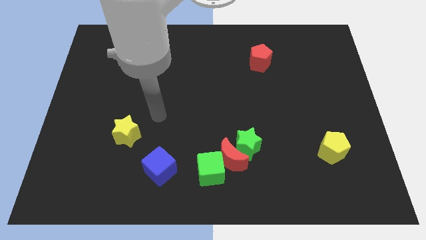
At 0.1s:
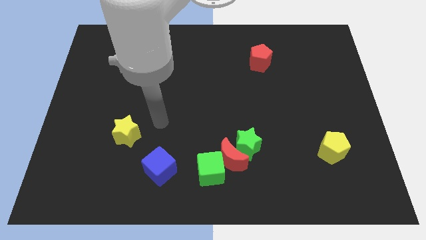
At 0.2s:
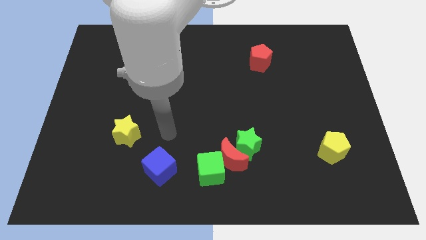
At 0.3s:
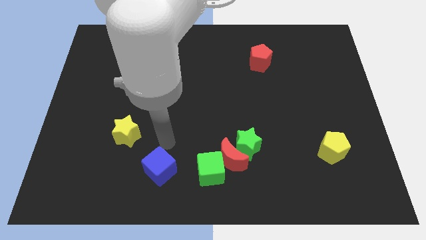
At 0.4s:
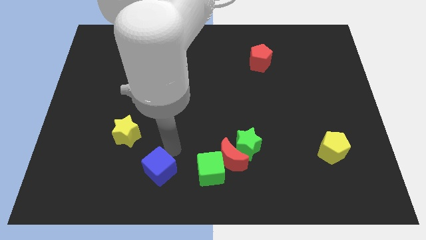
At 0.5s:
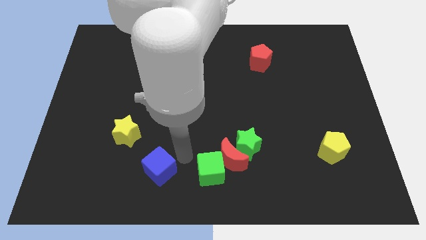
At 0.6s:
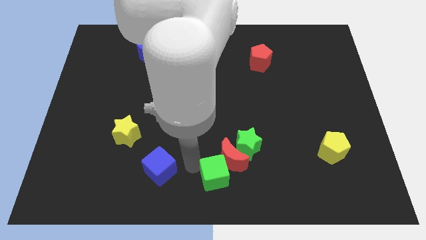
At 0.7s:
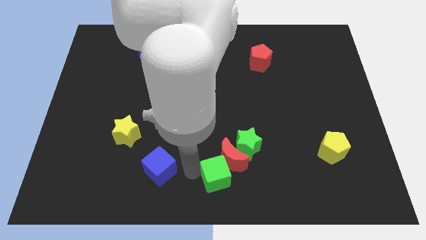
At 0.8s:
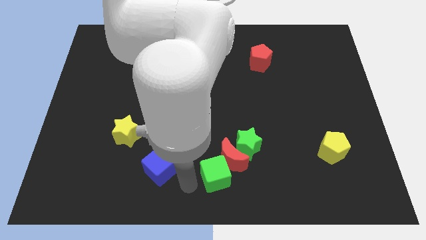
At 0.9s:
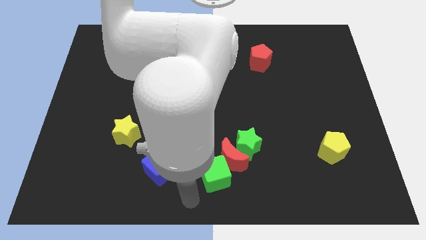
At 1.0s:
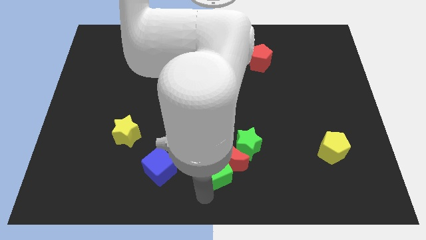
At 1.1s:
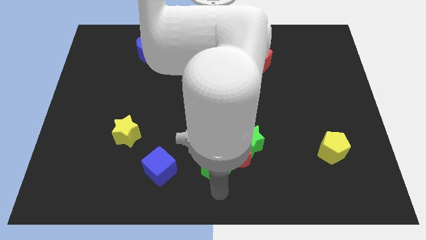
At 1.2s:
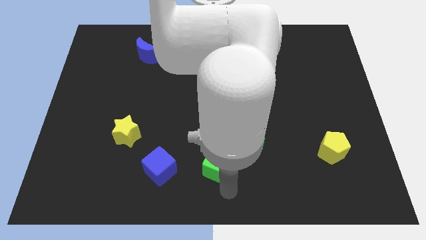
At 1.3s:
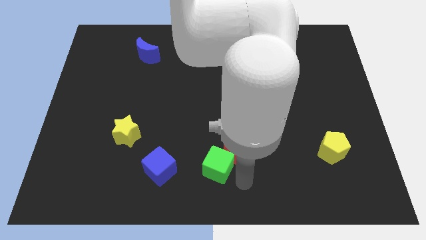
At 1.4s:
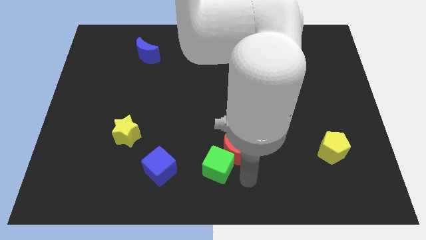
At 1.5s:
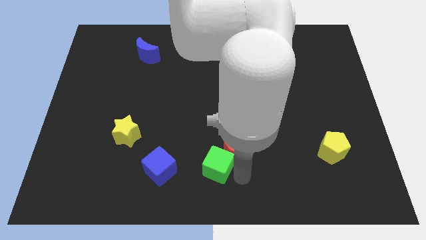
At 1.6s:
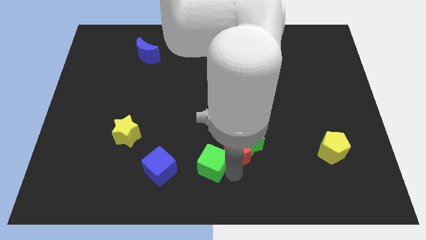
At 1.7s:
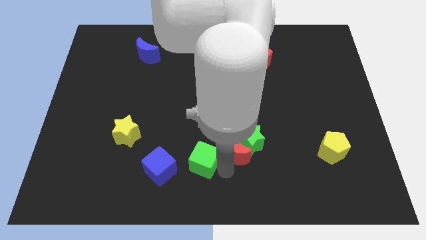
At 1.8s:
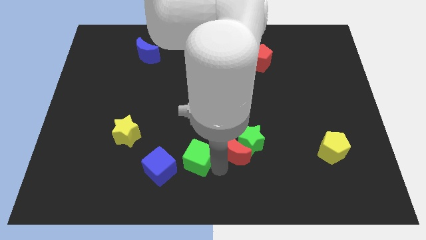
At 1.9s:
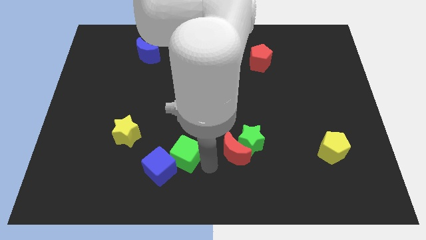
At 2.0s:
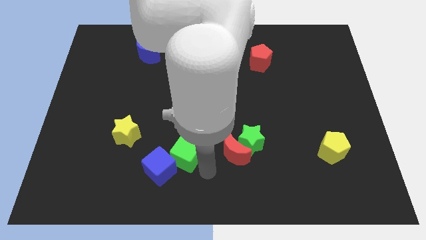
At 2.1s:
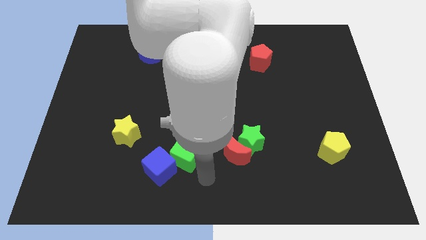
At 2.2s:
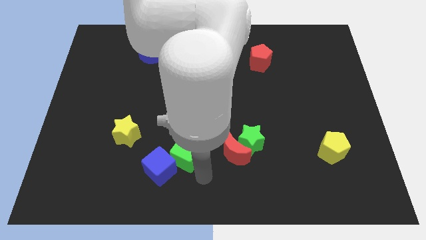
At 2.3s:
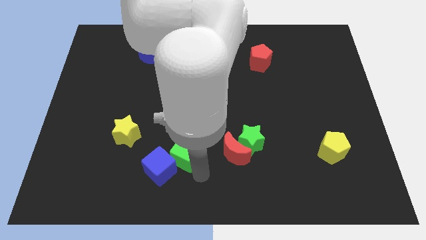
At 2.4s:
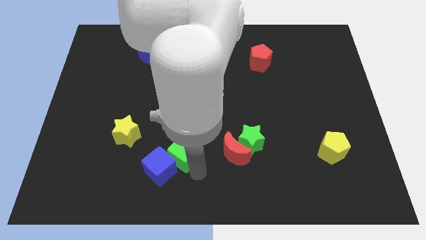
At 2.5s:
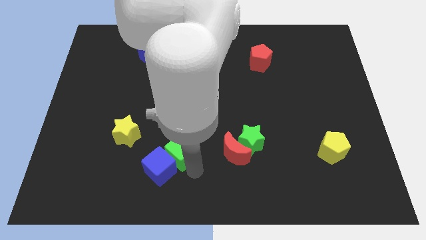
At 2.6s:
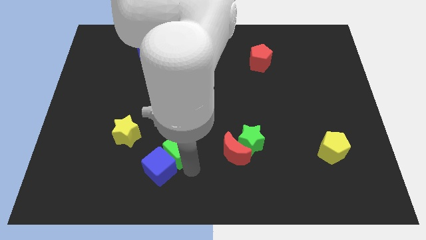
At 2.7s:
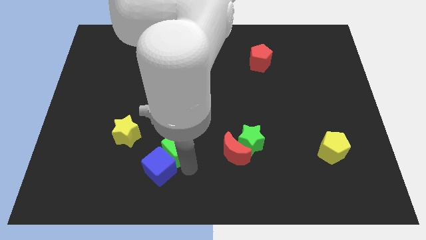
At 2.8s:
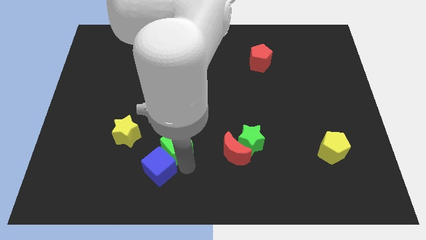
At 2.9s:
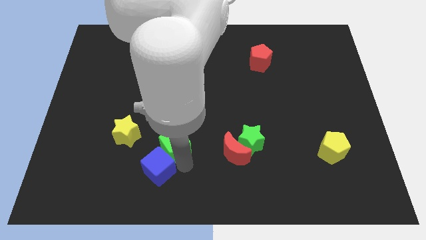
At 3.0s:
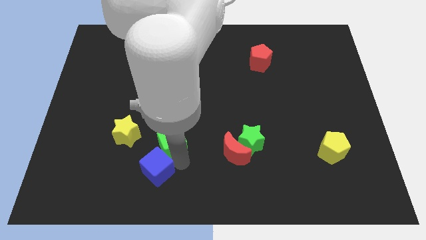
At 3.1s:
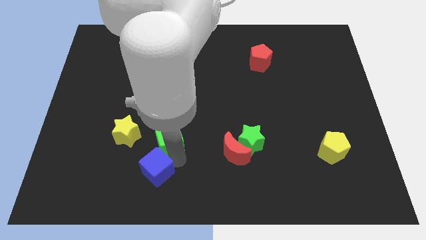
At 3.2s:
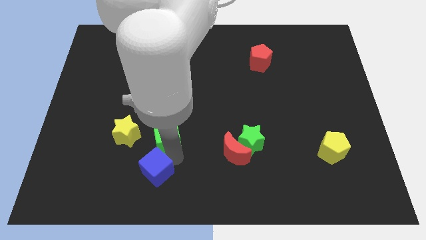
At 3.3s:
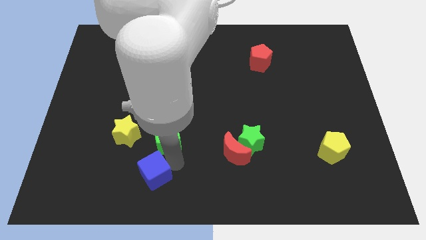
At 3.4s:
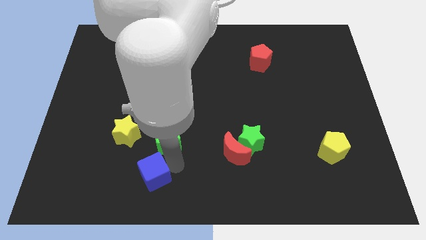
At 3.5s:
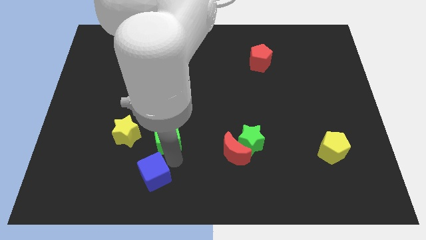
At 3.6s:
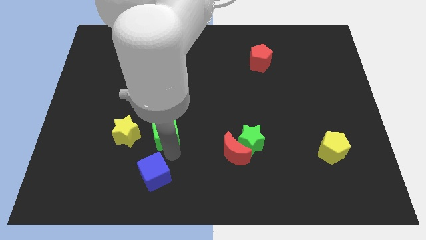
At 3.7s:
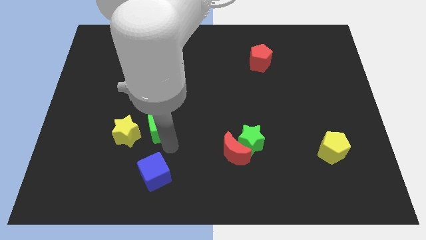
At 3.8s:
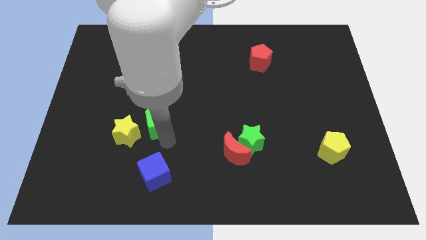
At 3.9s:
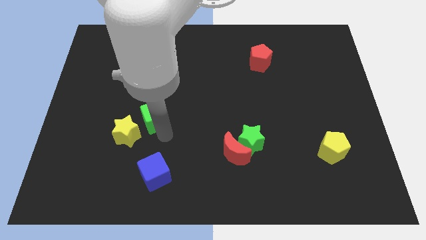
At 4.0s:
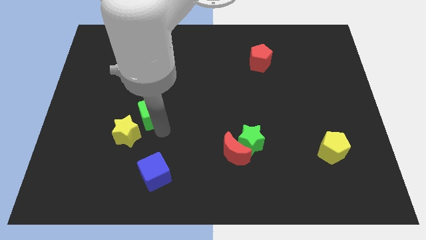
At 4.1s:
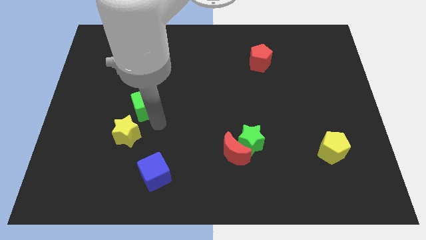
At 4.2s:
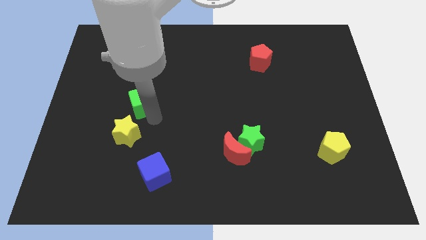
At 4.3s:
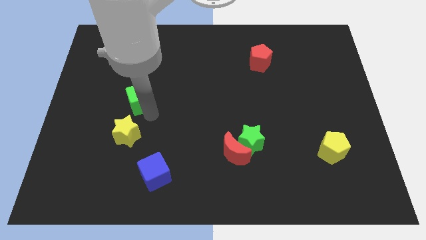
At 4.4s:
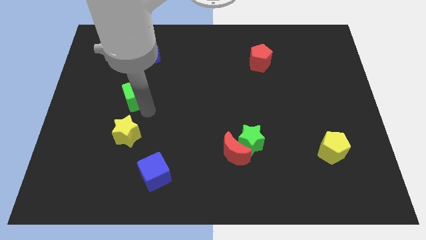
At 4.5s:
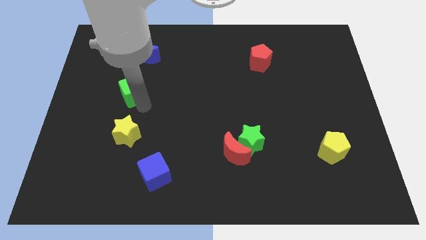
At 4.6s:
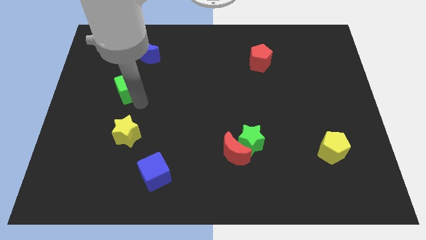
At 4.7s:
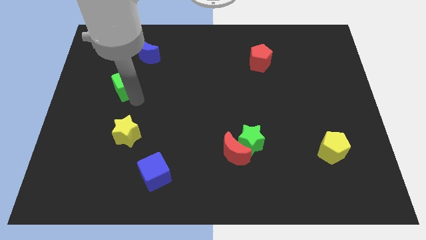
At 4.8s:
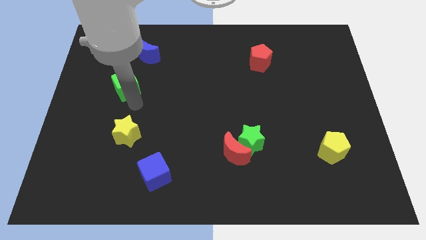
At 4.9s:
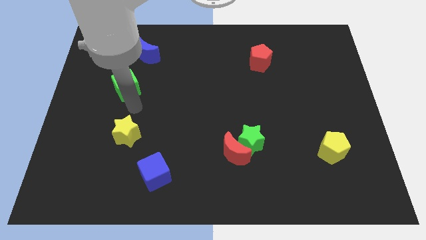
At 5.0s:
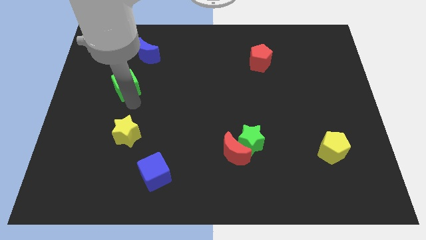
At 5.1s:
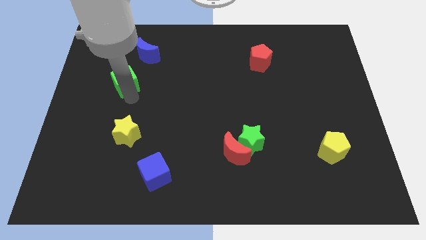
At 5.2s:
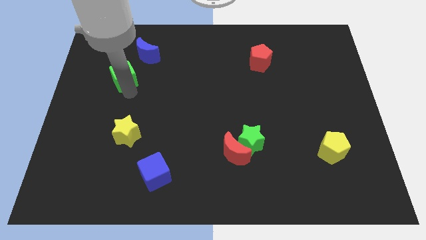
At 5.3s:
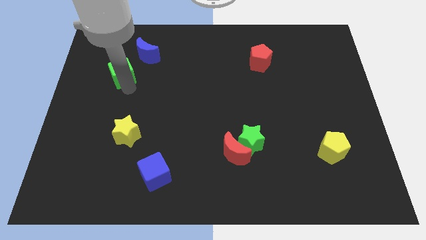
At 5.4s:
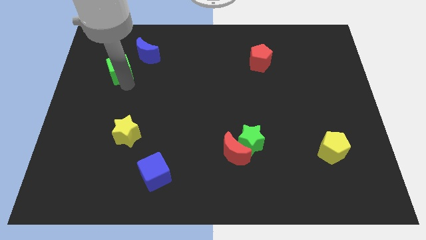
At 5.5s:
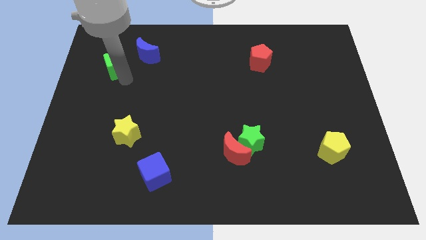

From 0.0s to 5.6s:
push the green cube left of the blue moon

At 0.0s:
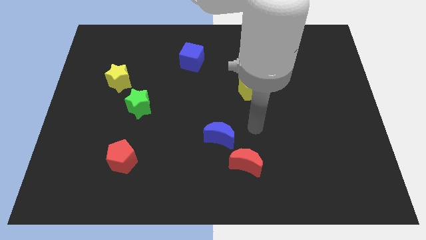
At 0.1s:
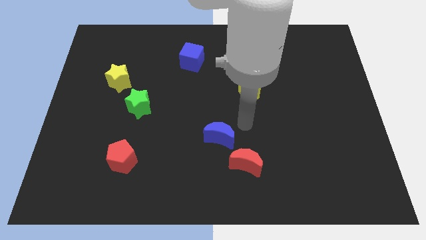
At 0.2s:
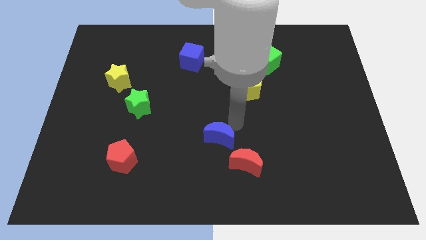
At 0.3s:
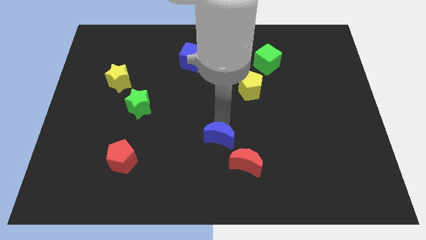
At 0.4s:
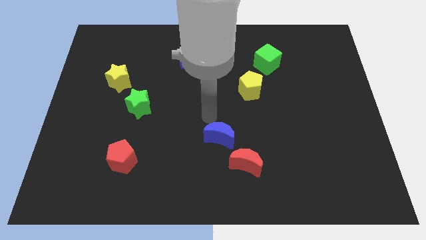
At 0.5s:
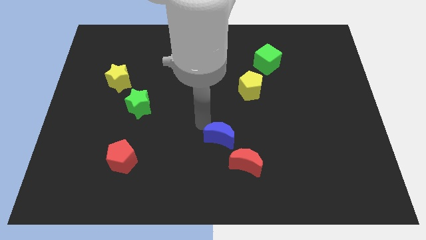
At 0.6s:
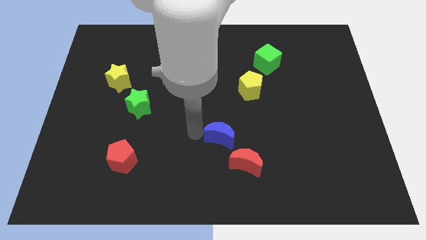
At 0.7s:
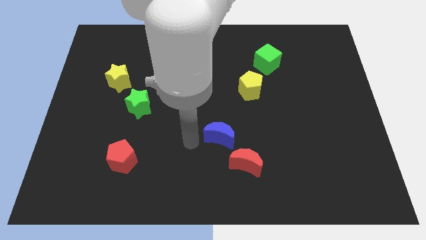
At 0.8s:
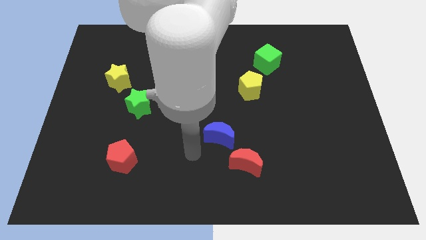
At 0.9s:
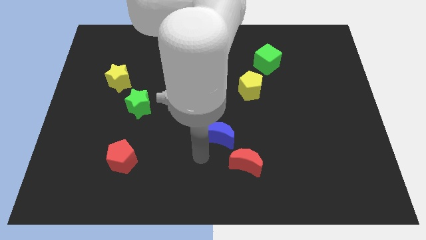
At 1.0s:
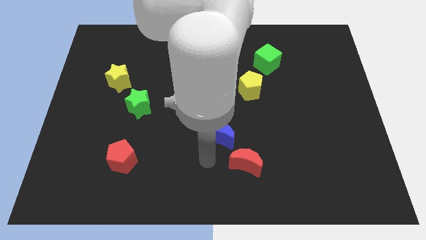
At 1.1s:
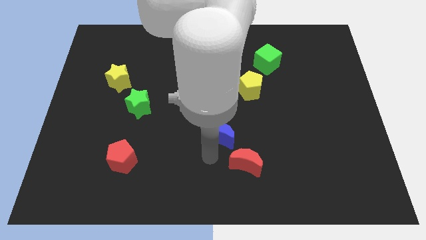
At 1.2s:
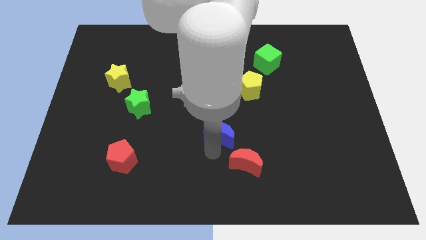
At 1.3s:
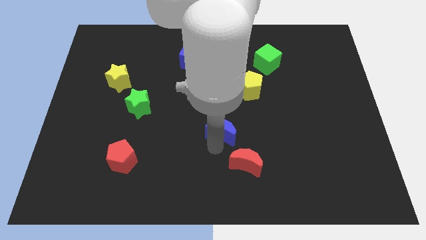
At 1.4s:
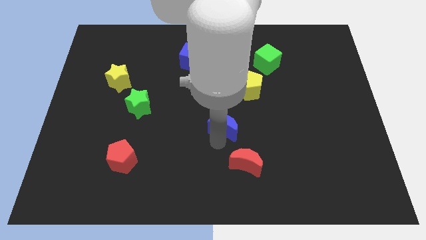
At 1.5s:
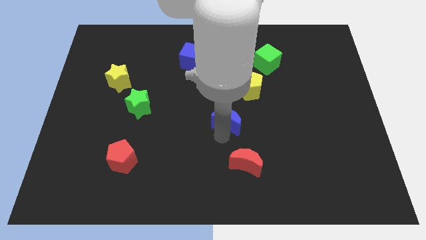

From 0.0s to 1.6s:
push the blue moon to the bottom left side of the yellow pentagon

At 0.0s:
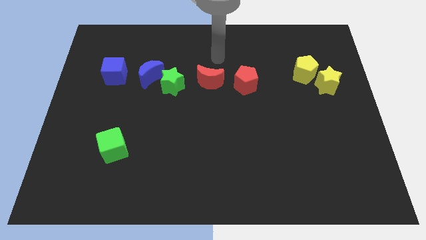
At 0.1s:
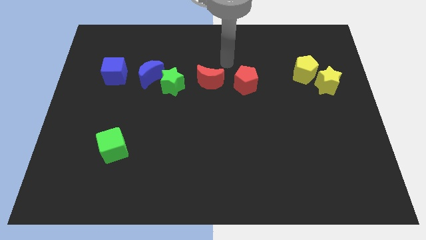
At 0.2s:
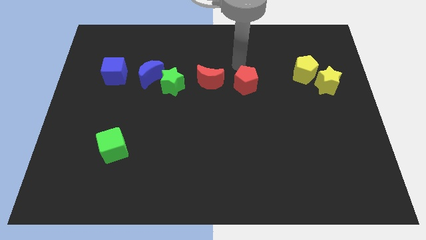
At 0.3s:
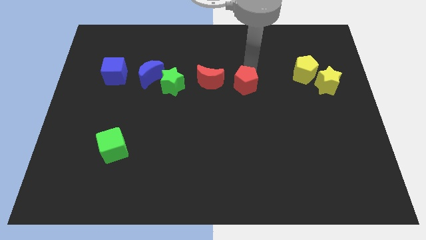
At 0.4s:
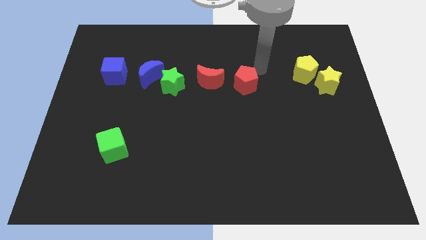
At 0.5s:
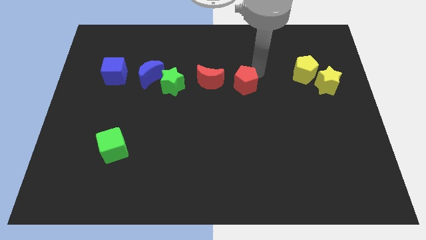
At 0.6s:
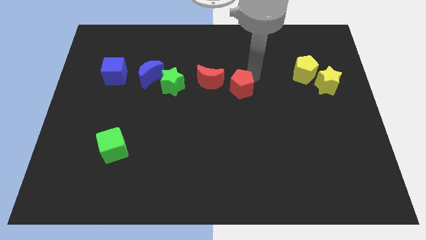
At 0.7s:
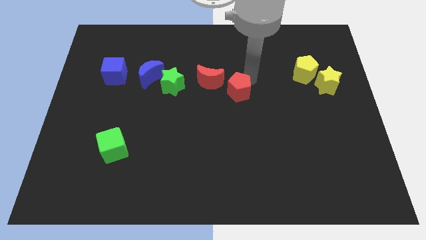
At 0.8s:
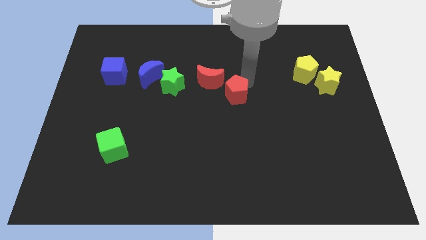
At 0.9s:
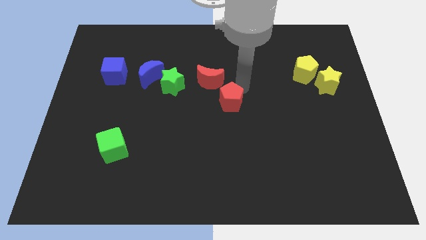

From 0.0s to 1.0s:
put the red pentagon to the bottom side of the red moon
